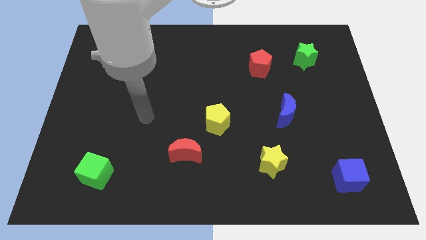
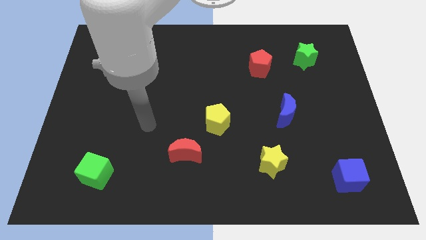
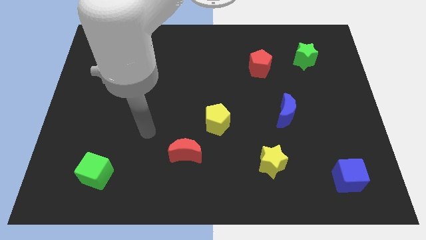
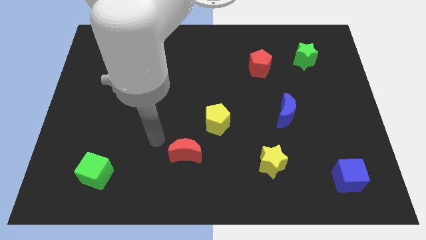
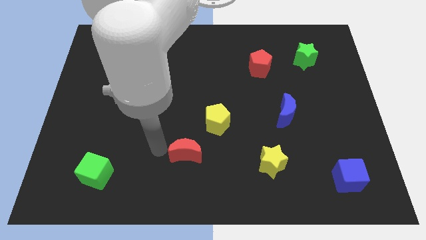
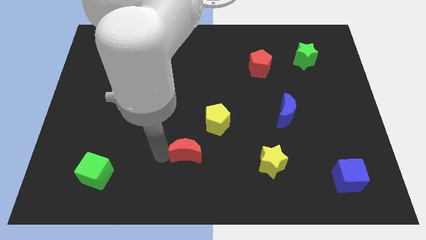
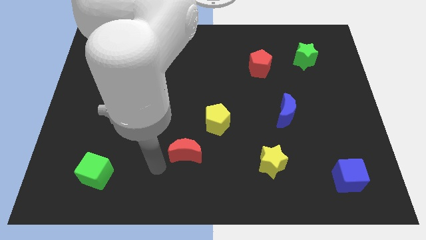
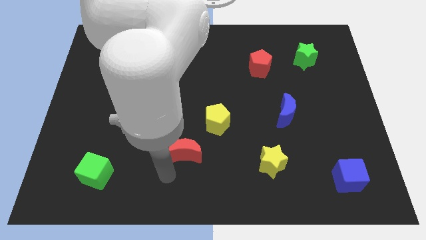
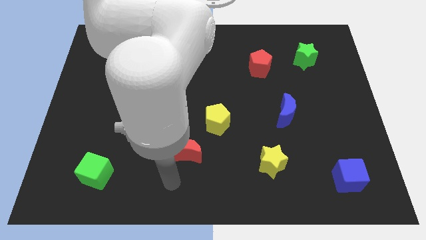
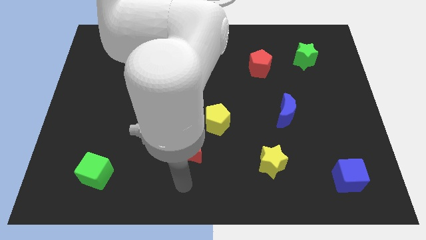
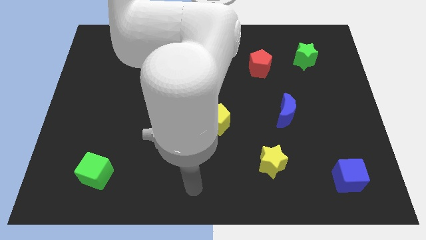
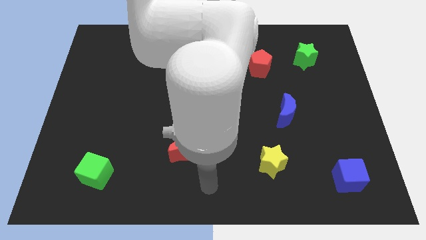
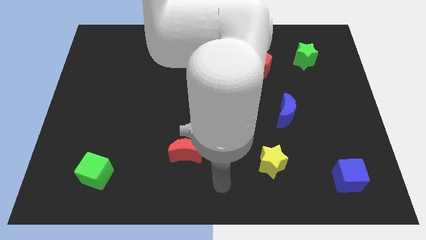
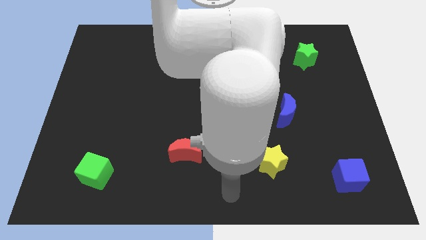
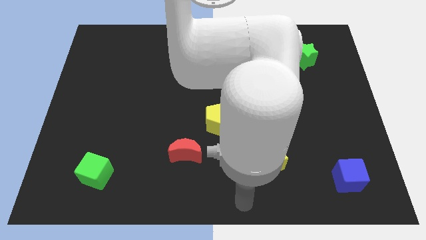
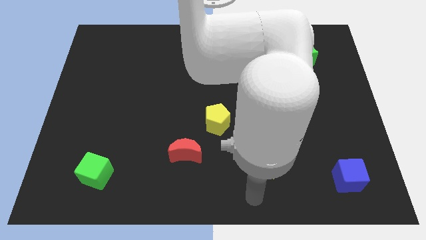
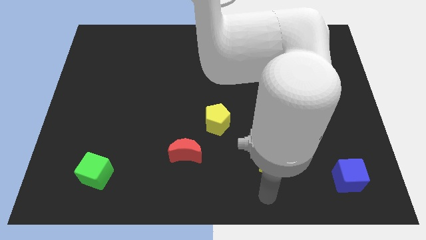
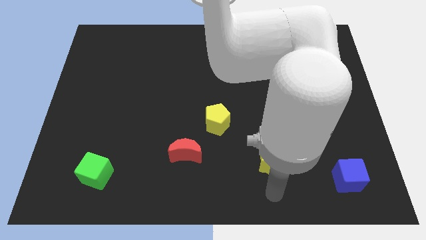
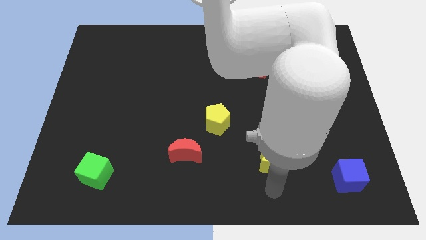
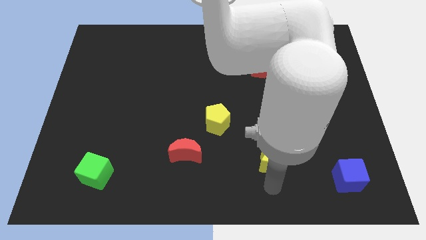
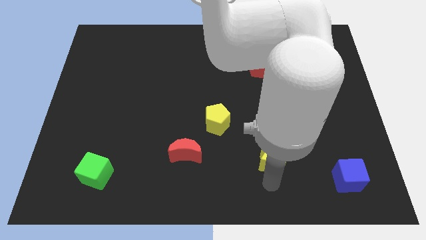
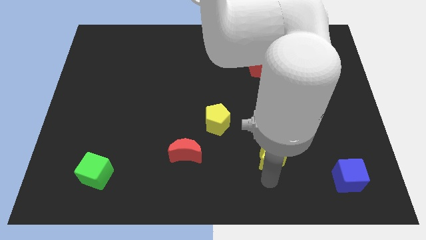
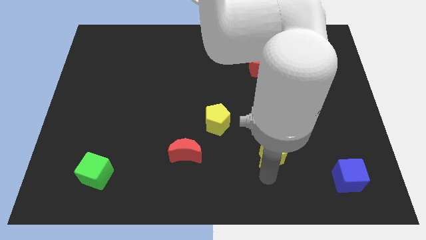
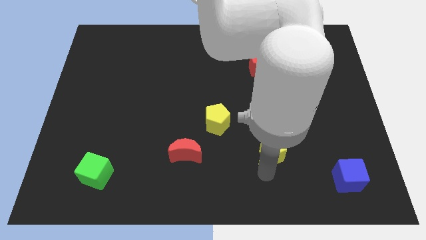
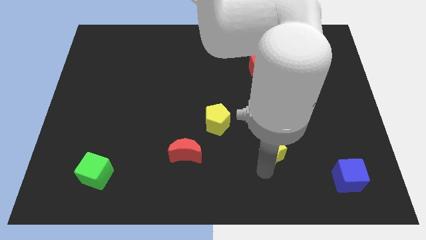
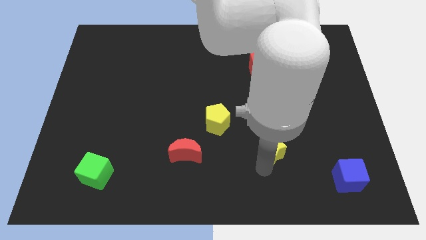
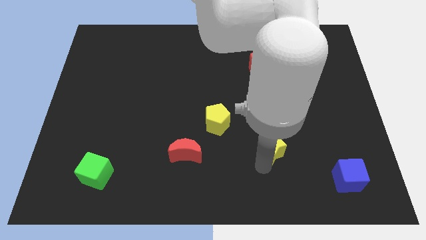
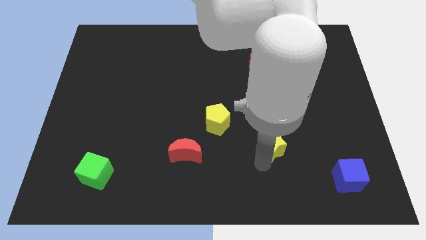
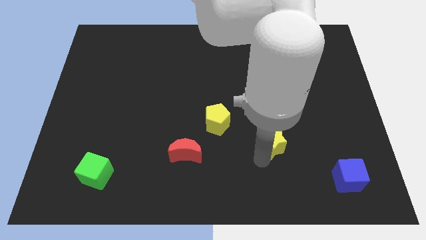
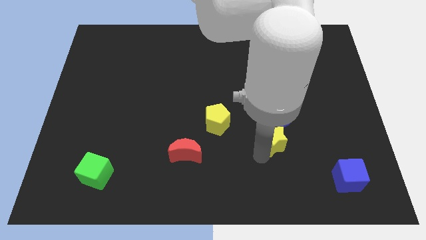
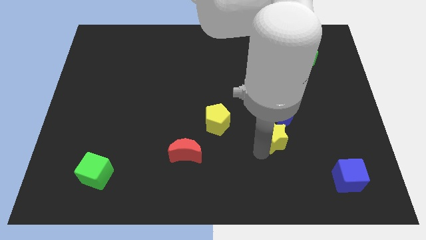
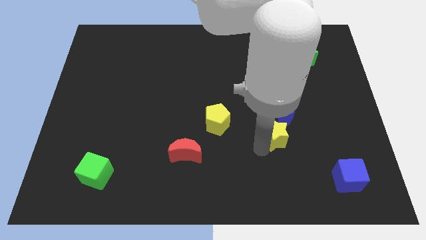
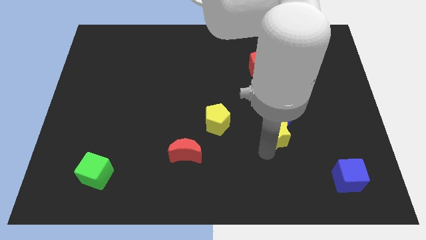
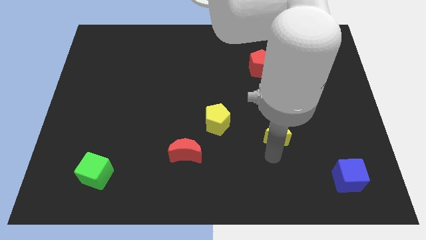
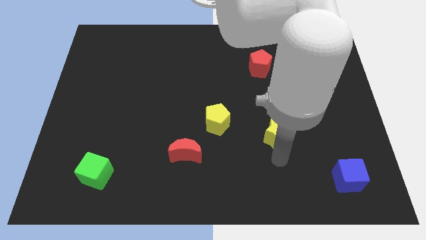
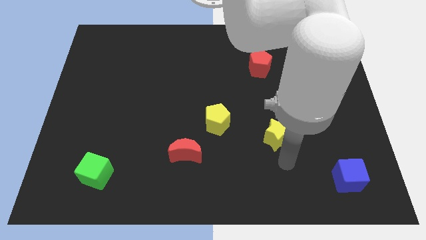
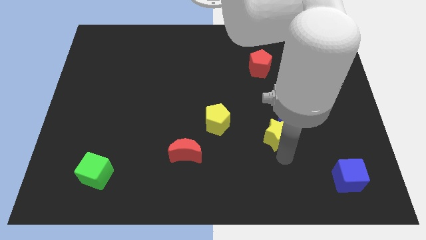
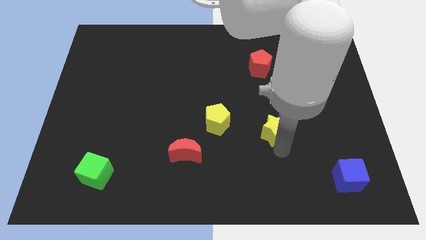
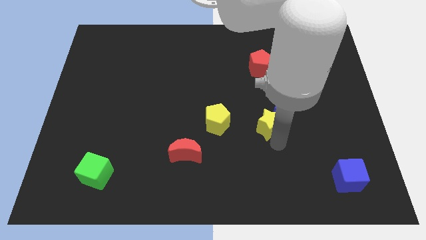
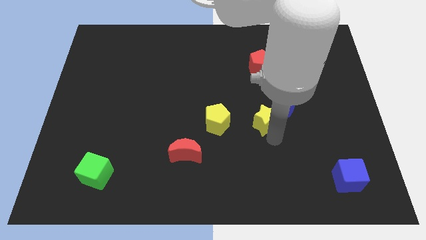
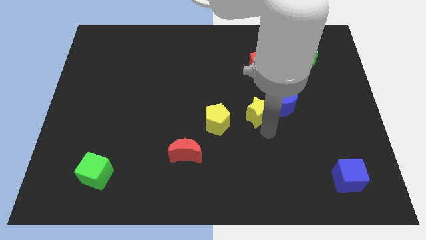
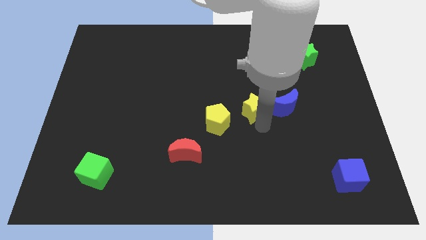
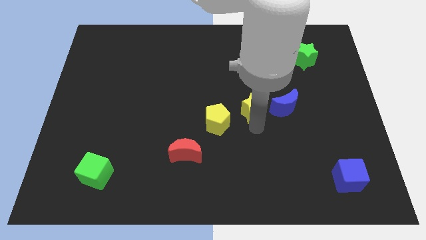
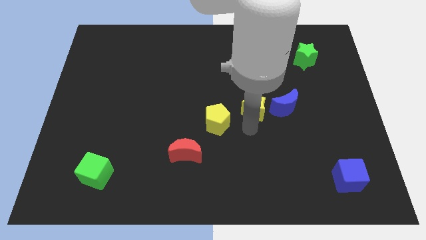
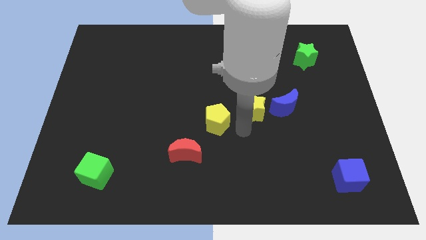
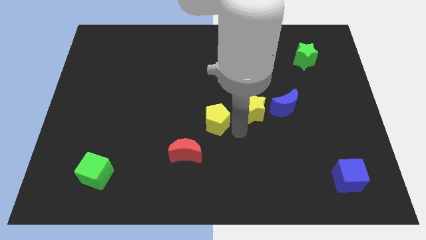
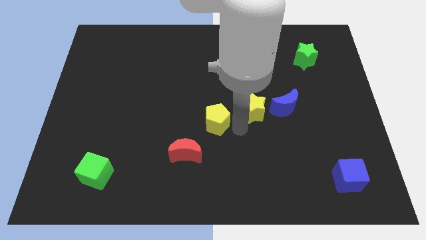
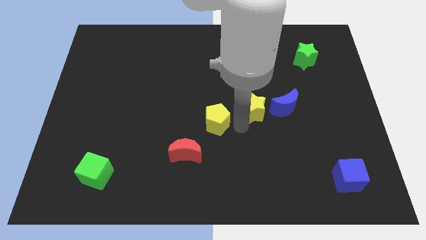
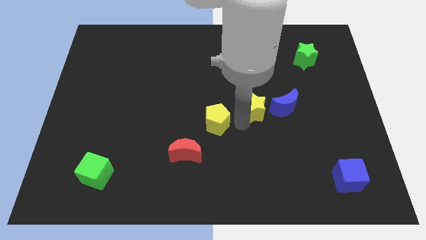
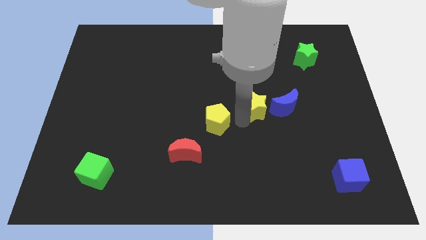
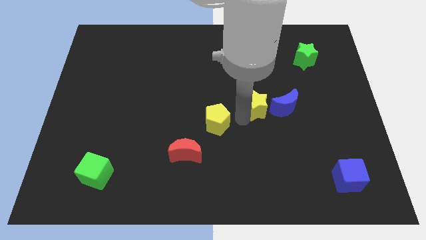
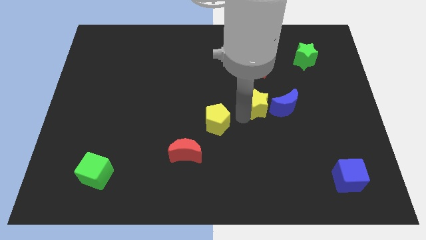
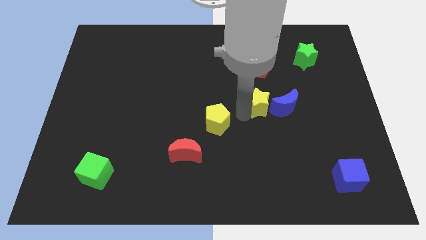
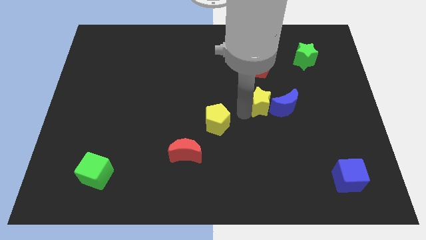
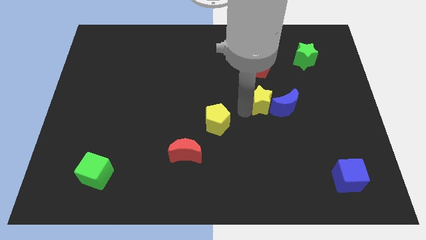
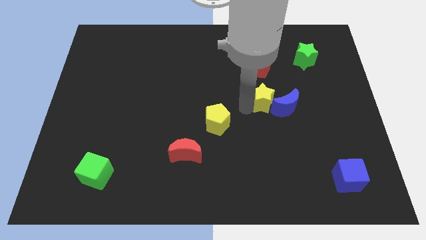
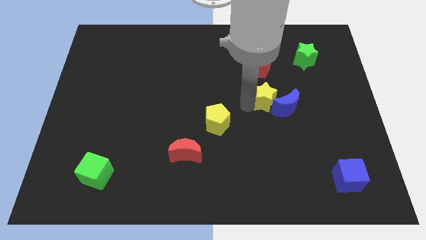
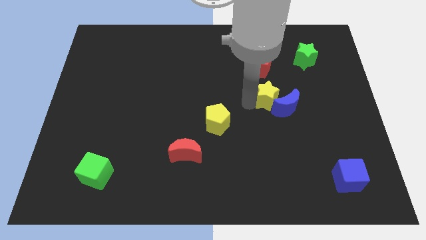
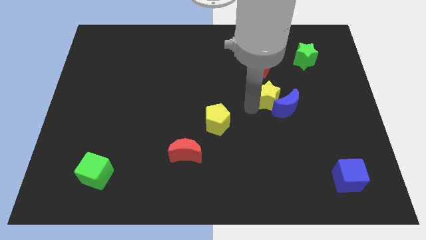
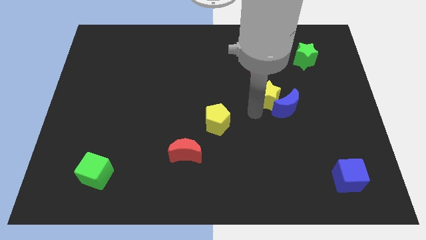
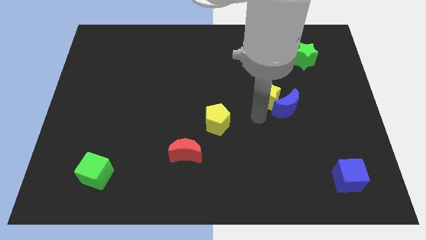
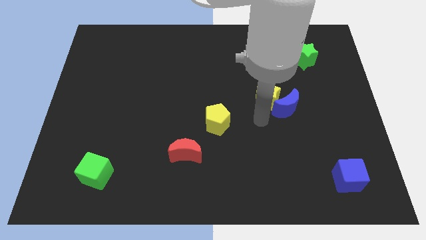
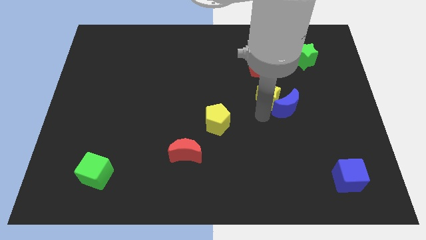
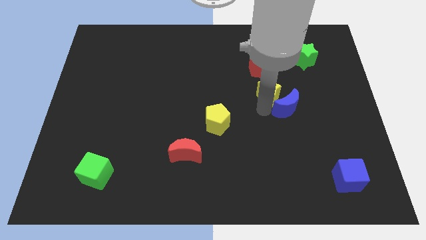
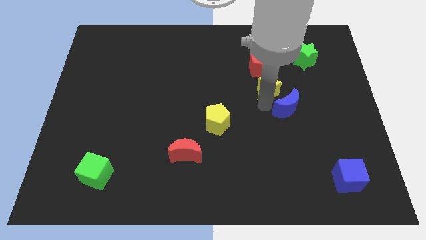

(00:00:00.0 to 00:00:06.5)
push the yellow star upwards

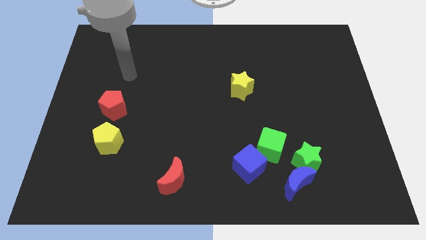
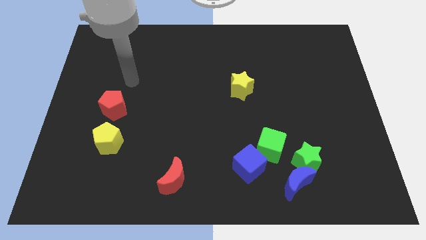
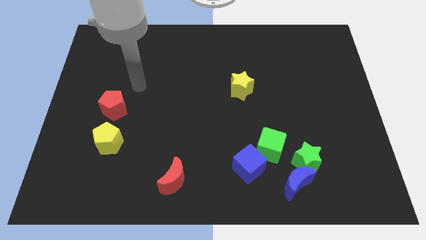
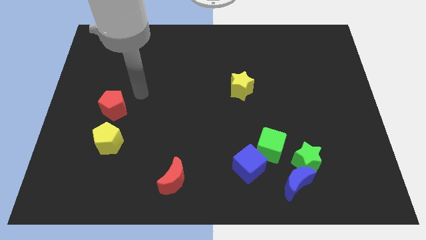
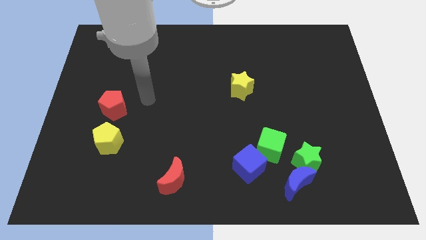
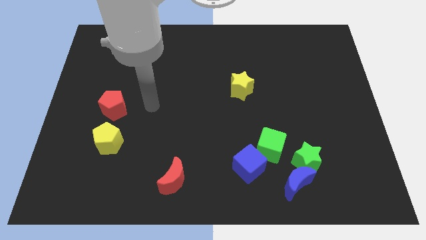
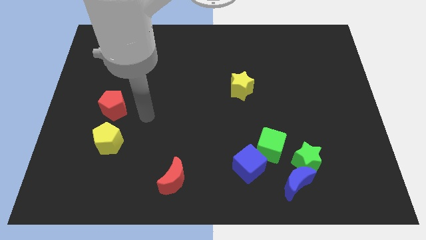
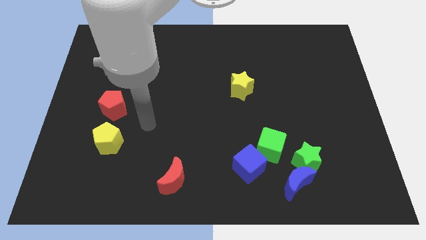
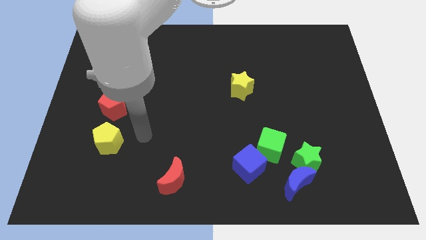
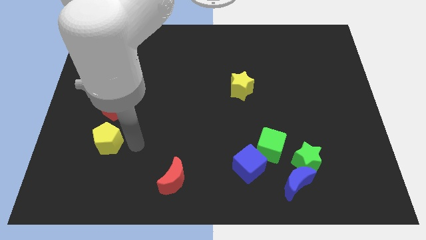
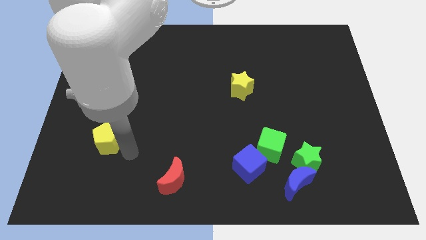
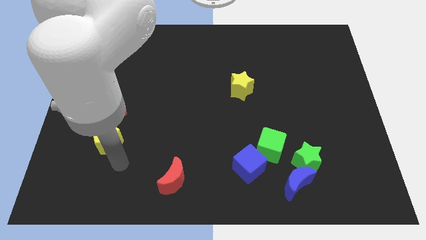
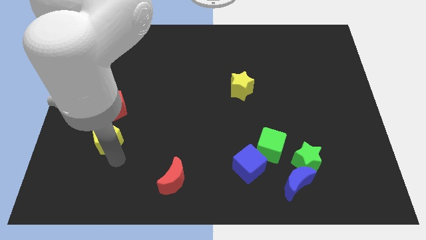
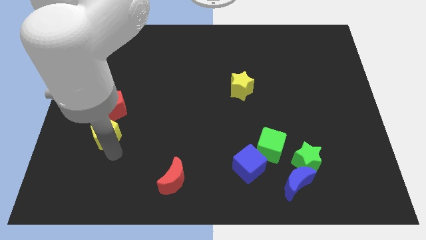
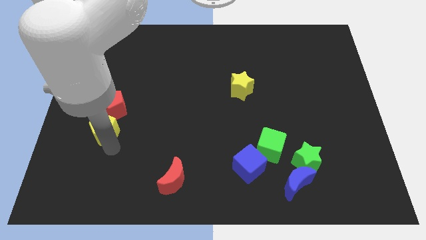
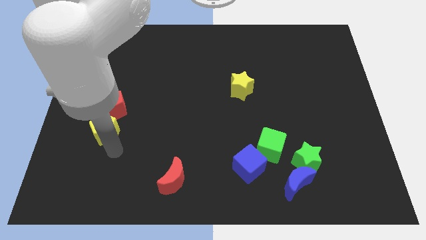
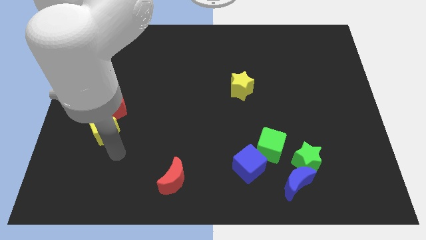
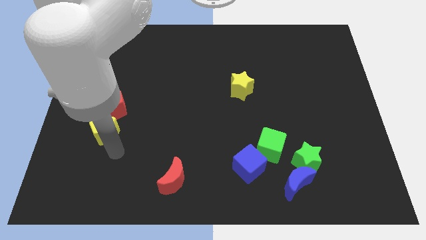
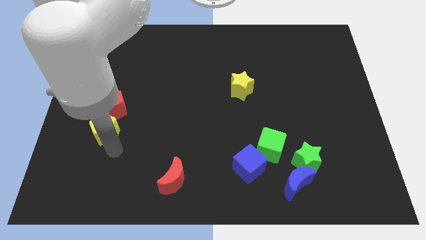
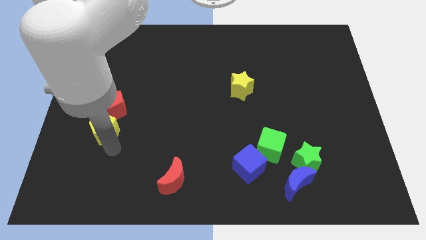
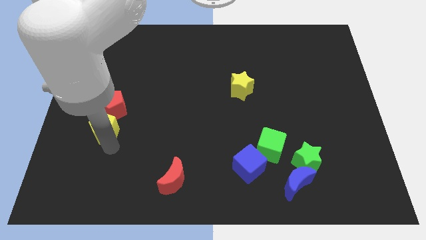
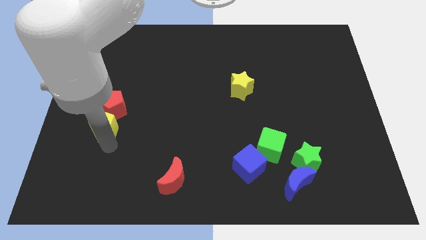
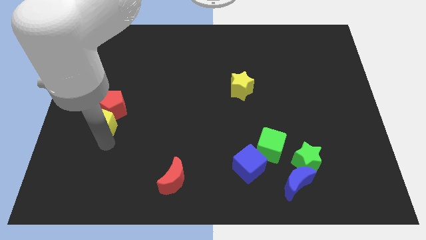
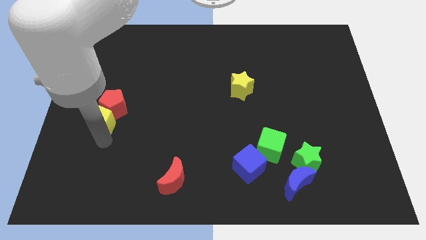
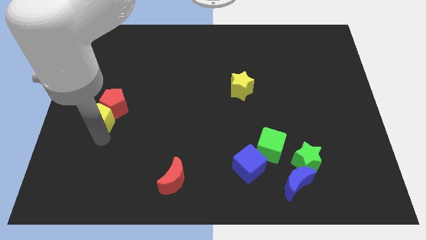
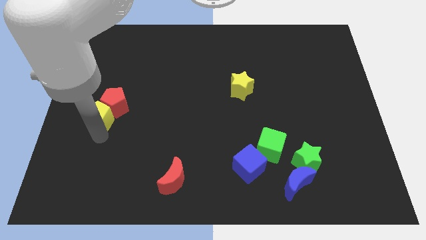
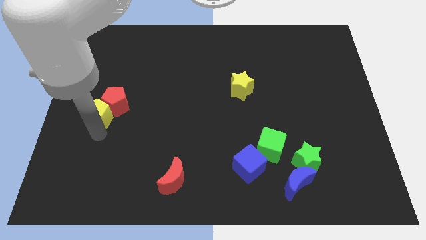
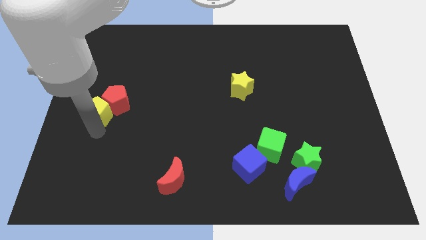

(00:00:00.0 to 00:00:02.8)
push the yellow pentagon up slightly
